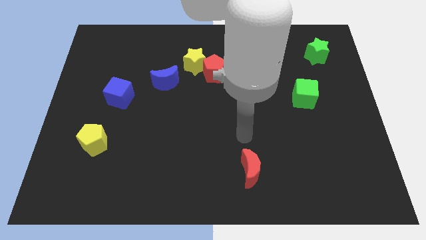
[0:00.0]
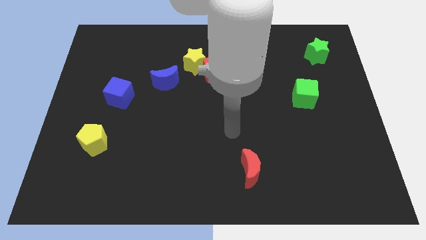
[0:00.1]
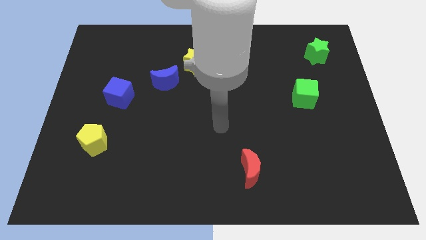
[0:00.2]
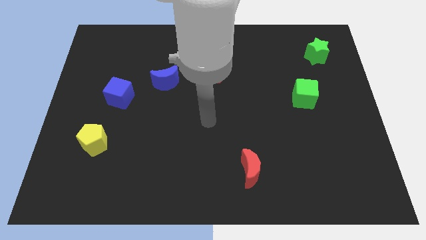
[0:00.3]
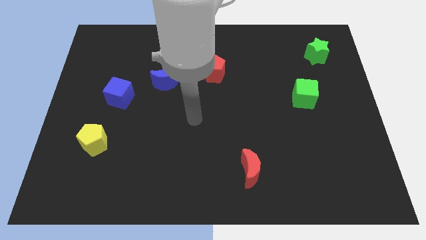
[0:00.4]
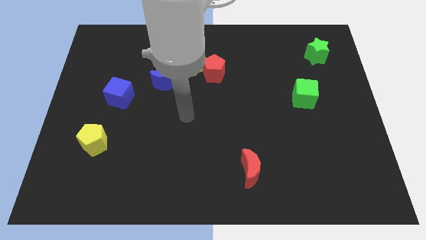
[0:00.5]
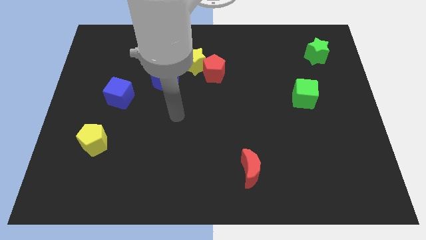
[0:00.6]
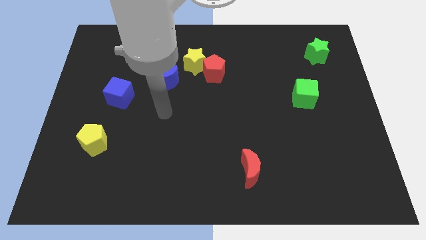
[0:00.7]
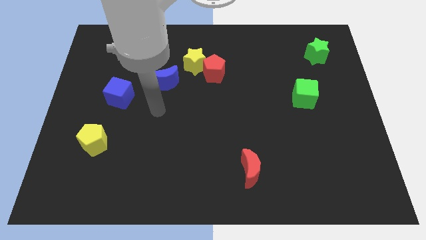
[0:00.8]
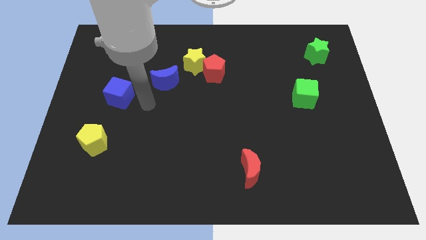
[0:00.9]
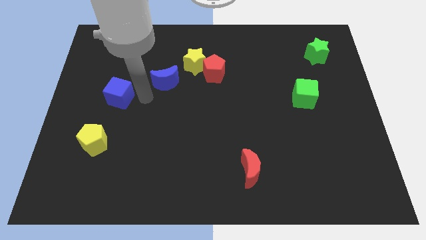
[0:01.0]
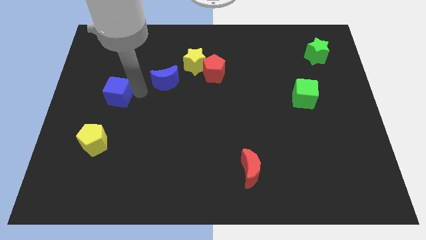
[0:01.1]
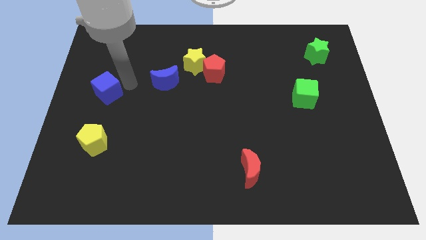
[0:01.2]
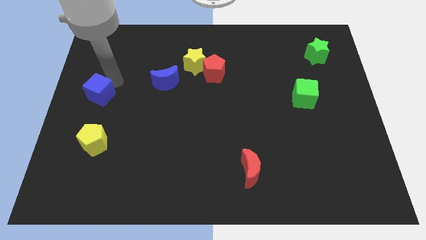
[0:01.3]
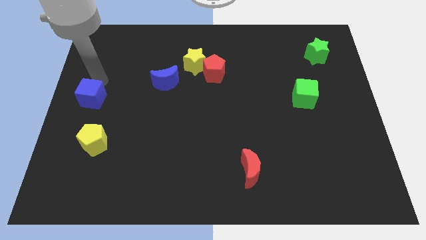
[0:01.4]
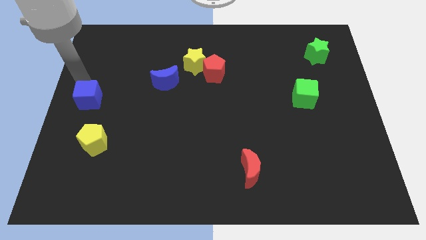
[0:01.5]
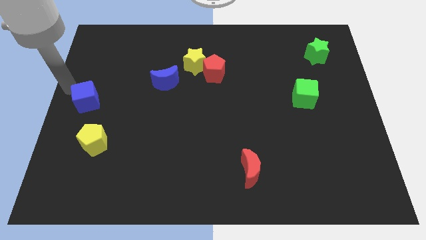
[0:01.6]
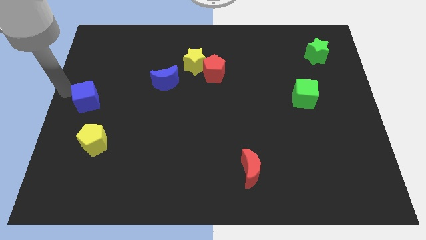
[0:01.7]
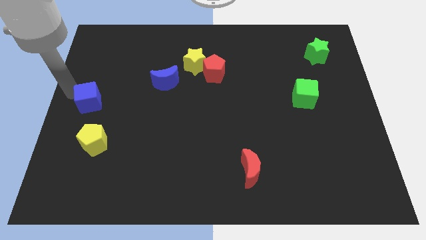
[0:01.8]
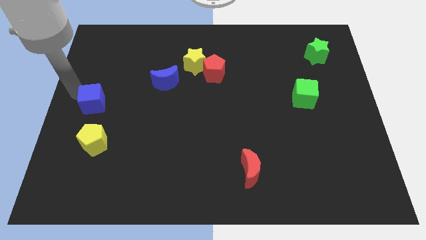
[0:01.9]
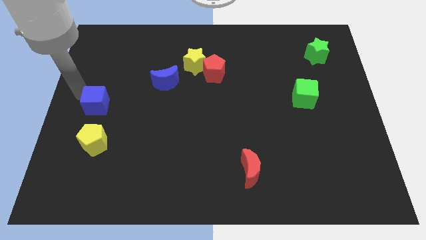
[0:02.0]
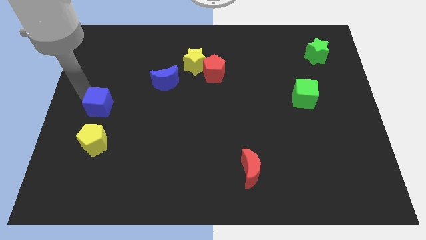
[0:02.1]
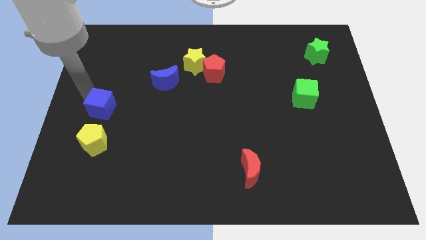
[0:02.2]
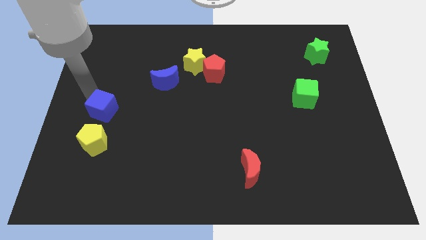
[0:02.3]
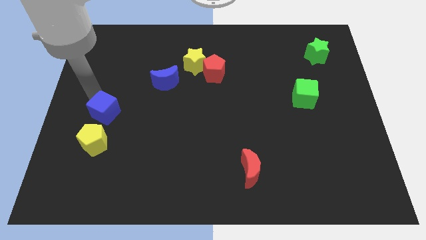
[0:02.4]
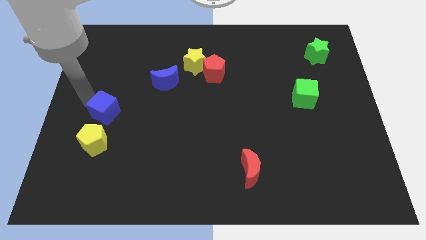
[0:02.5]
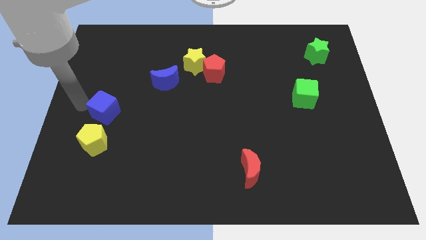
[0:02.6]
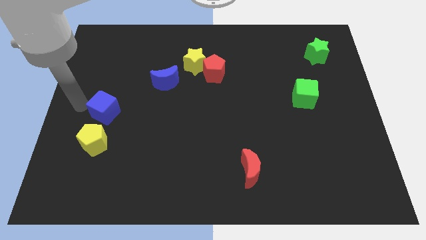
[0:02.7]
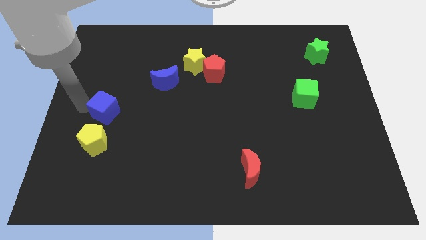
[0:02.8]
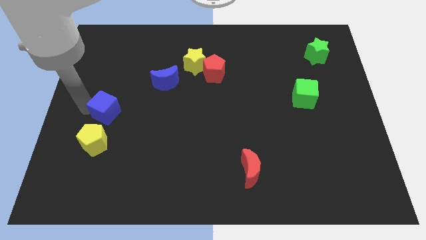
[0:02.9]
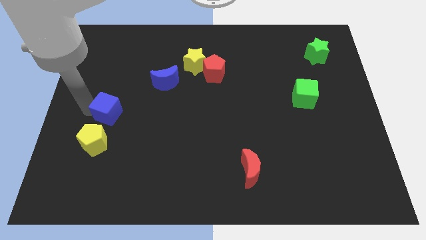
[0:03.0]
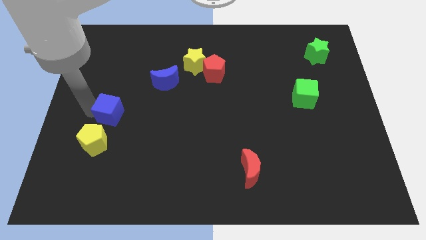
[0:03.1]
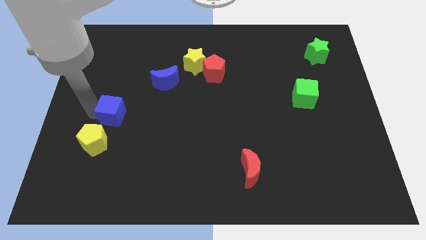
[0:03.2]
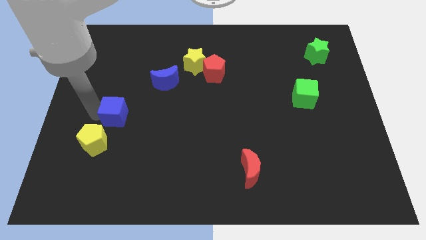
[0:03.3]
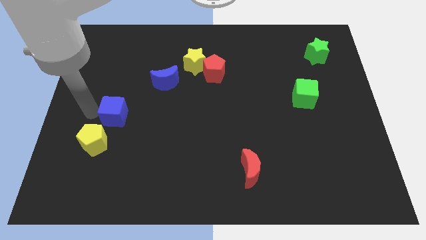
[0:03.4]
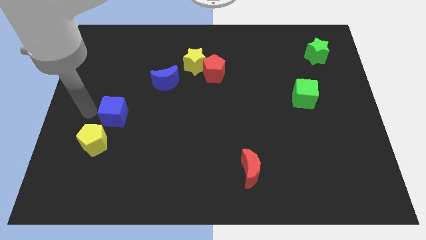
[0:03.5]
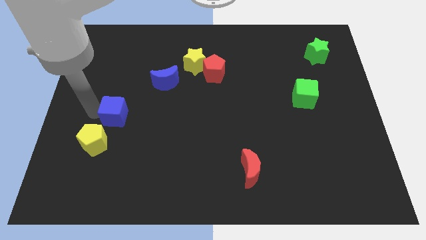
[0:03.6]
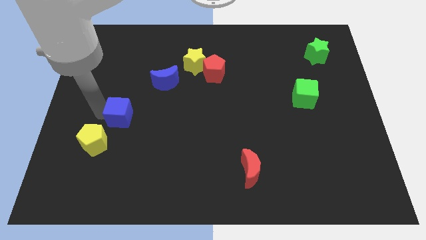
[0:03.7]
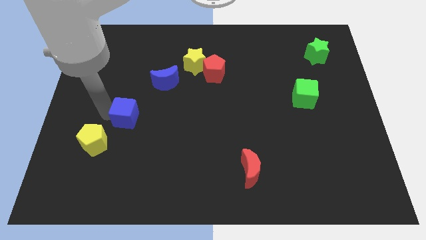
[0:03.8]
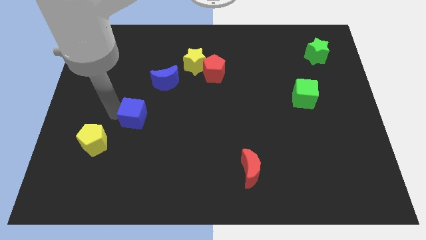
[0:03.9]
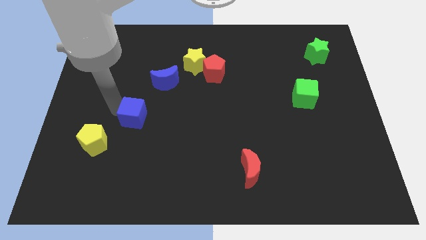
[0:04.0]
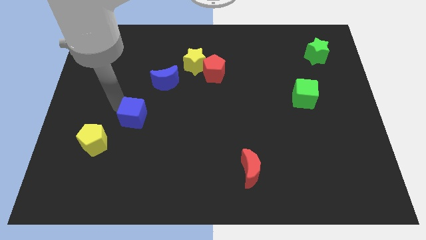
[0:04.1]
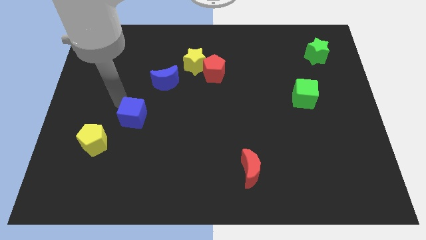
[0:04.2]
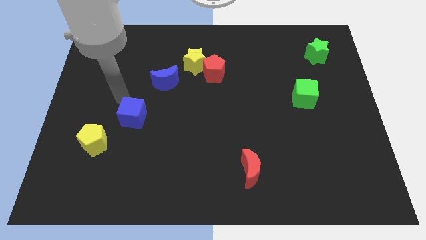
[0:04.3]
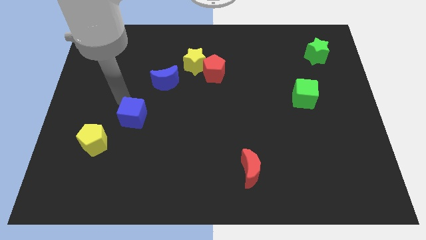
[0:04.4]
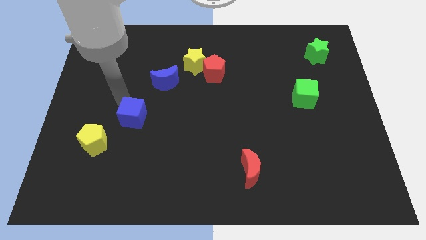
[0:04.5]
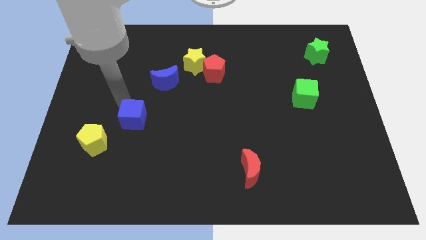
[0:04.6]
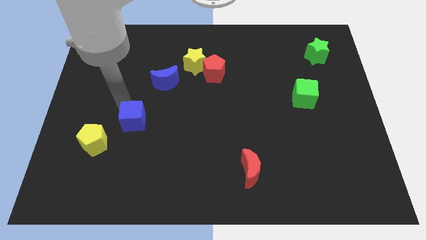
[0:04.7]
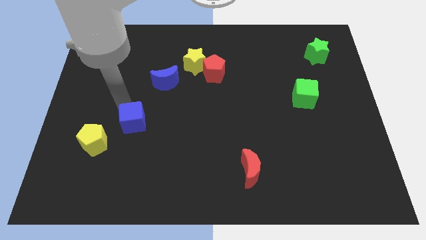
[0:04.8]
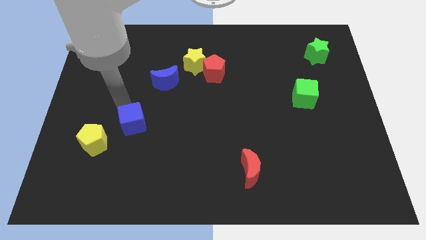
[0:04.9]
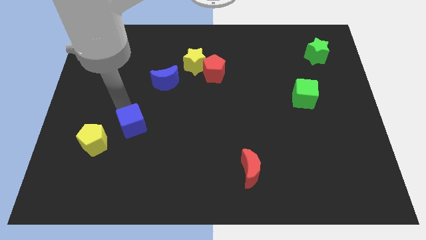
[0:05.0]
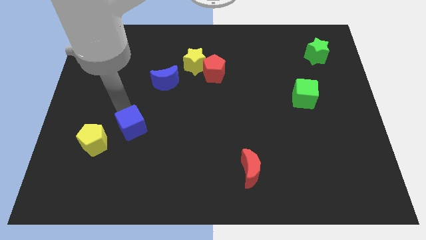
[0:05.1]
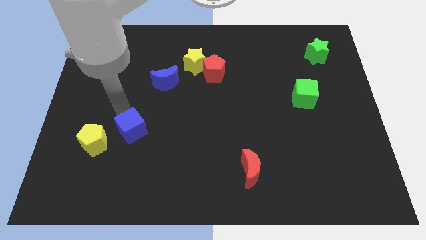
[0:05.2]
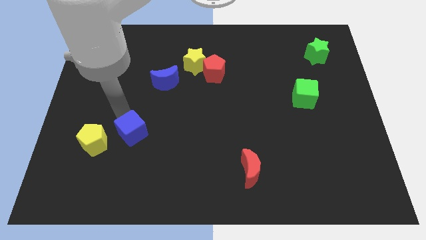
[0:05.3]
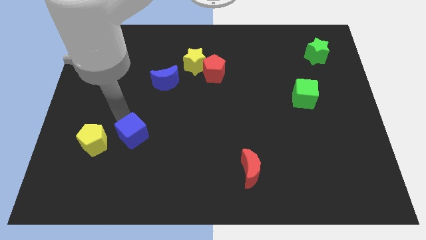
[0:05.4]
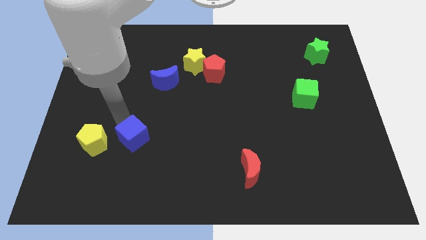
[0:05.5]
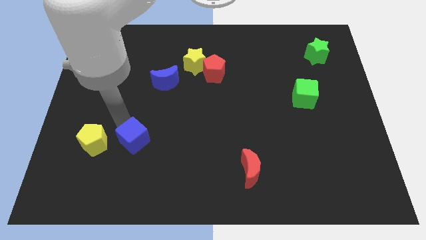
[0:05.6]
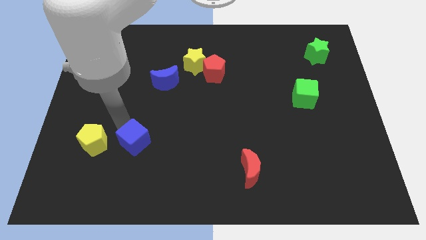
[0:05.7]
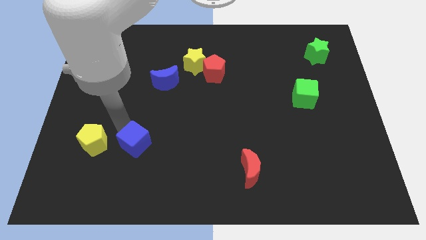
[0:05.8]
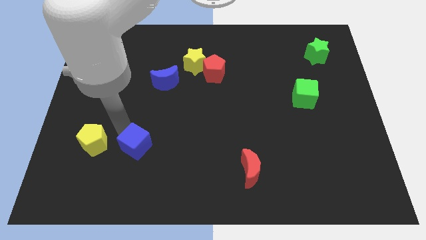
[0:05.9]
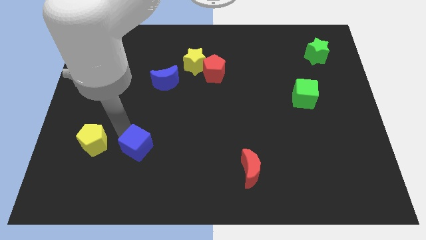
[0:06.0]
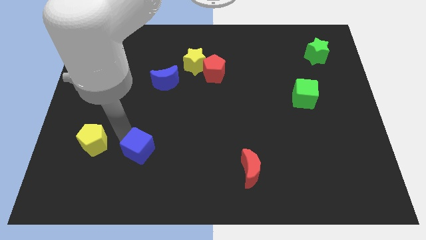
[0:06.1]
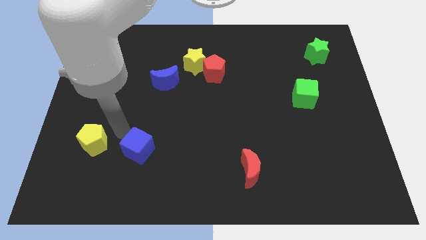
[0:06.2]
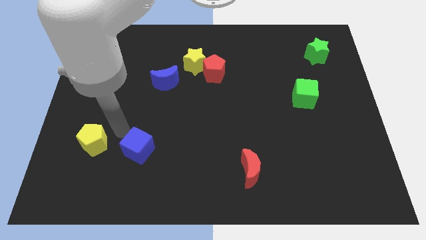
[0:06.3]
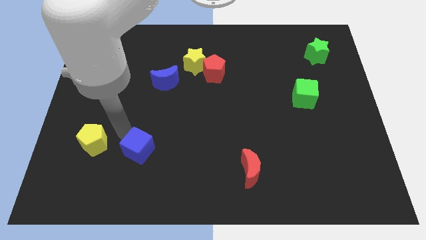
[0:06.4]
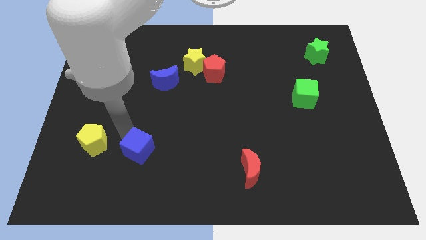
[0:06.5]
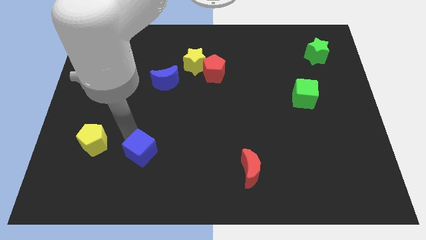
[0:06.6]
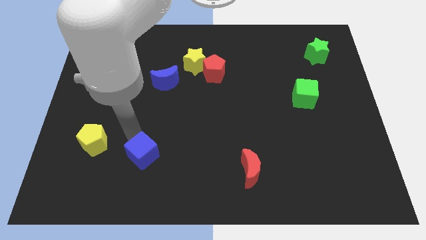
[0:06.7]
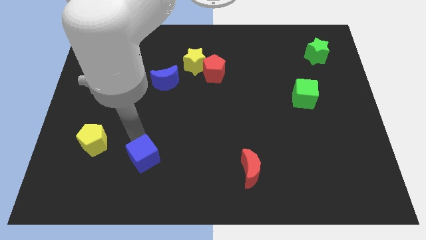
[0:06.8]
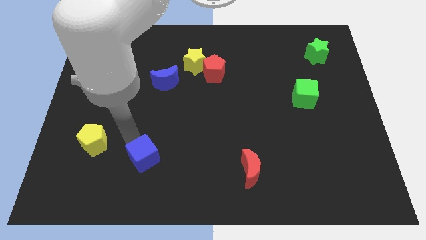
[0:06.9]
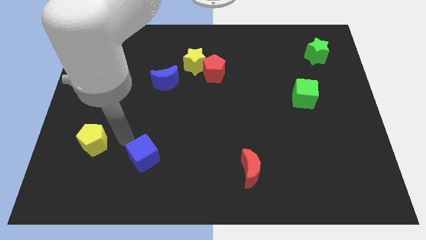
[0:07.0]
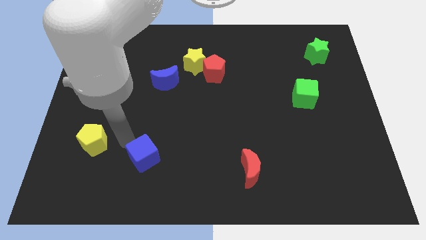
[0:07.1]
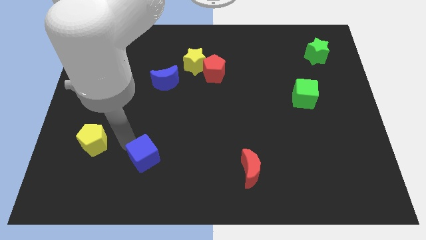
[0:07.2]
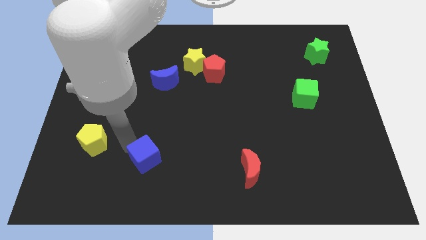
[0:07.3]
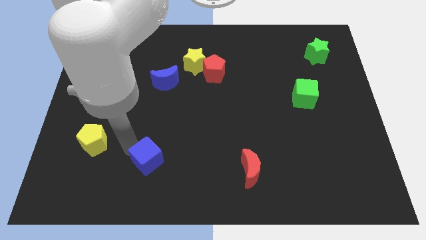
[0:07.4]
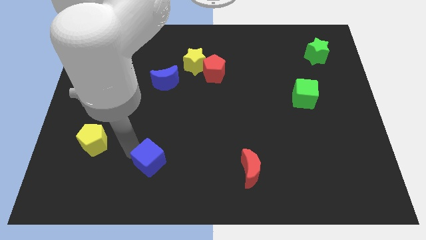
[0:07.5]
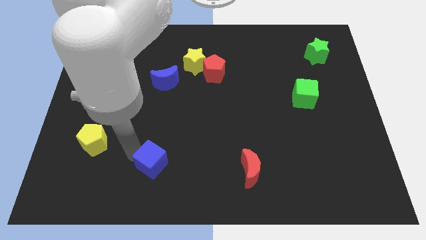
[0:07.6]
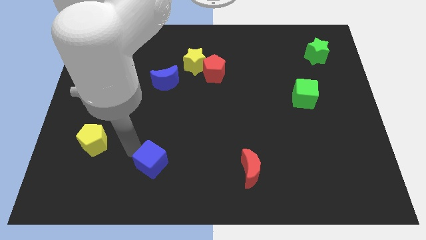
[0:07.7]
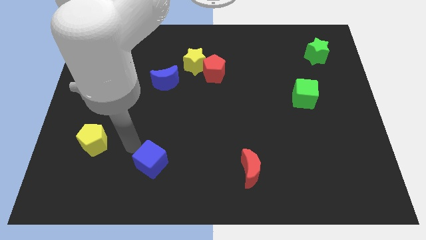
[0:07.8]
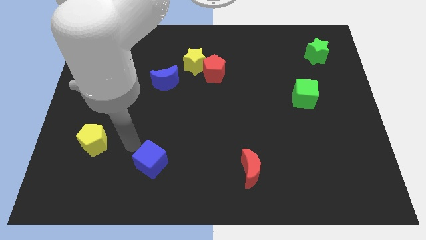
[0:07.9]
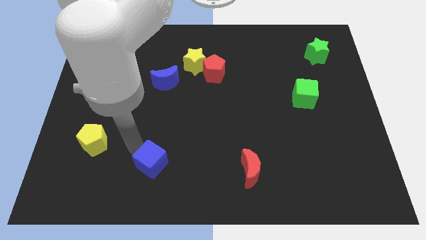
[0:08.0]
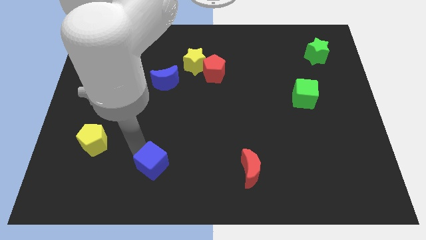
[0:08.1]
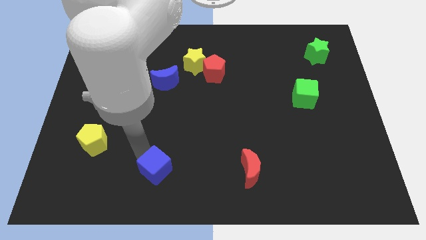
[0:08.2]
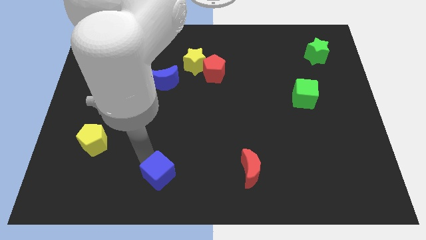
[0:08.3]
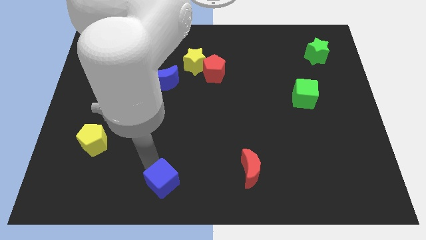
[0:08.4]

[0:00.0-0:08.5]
slide the blue cube to the bottom side
